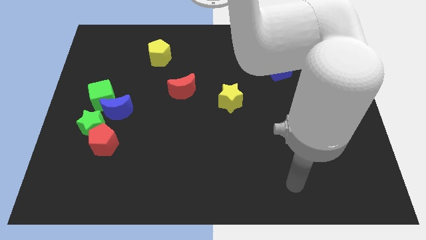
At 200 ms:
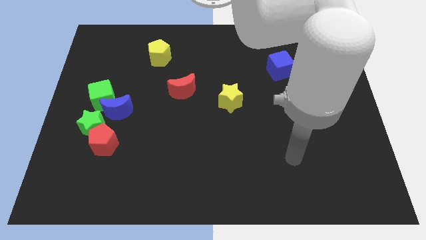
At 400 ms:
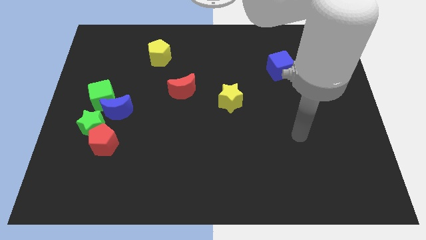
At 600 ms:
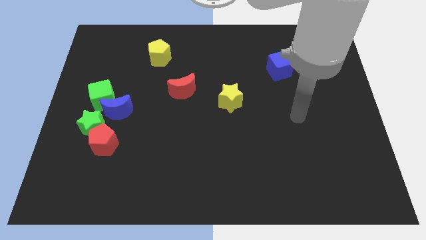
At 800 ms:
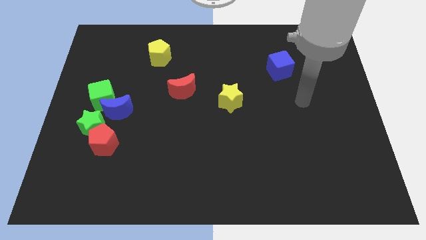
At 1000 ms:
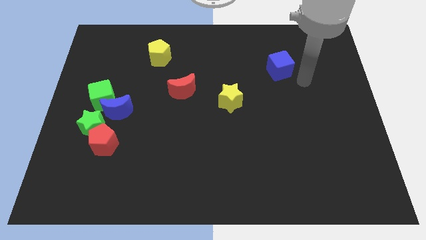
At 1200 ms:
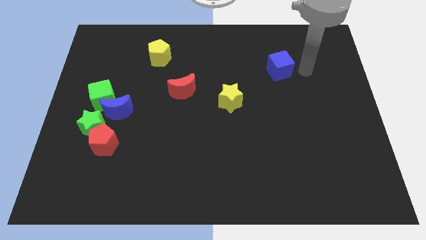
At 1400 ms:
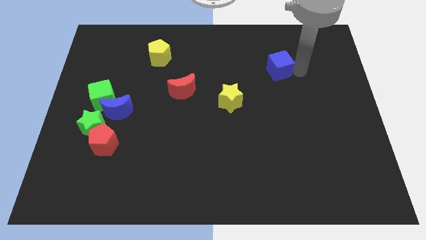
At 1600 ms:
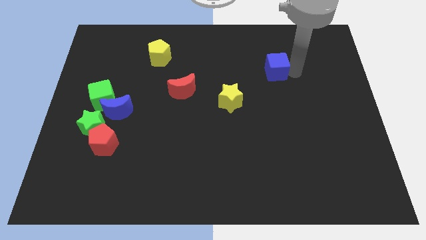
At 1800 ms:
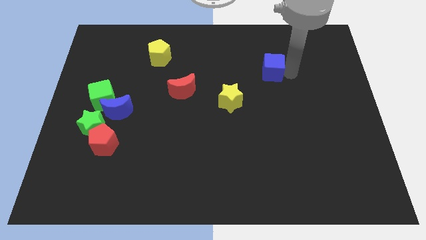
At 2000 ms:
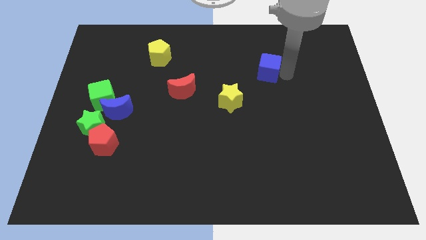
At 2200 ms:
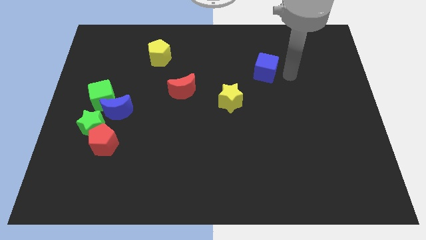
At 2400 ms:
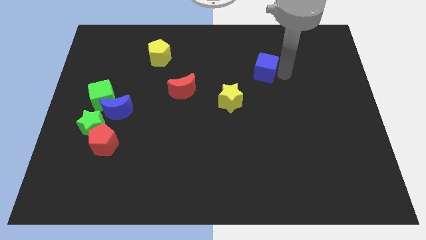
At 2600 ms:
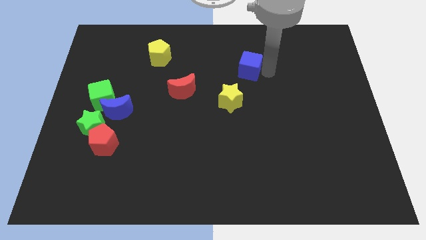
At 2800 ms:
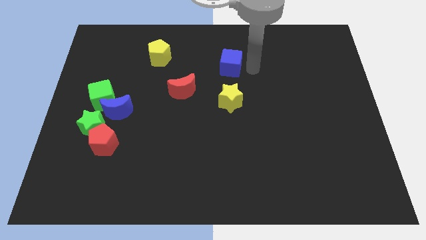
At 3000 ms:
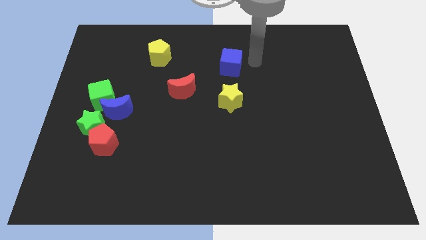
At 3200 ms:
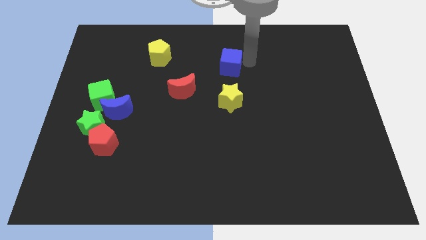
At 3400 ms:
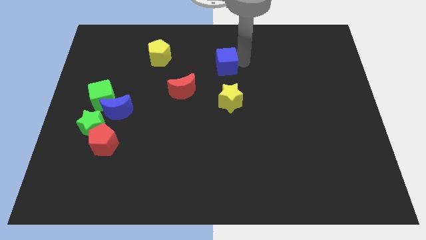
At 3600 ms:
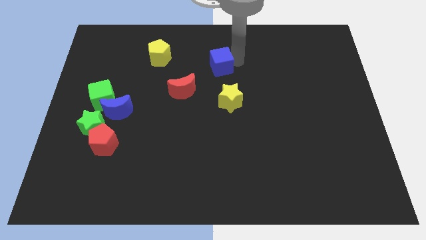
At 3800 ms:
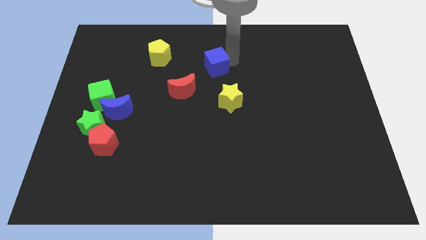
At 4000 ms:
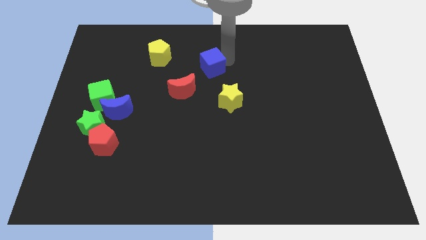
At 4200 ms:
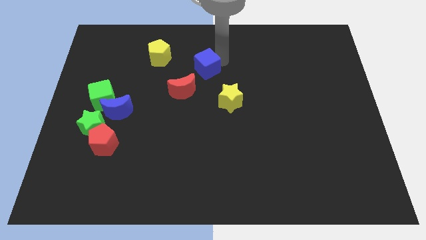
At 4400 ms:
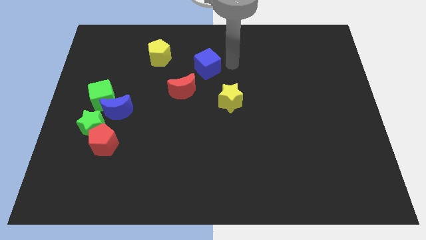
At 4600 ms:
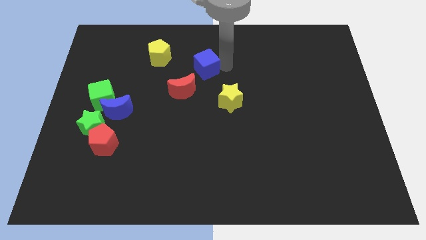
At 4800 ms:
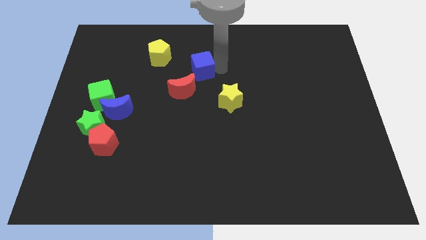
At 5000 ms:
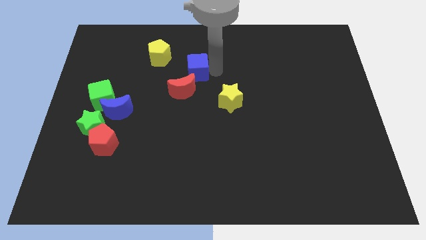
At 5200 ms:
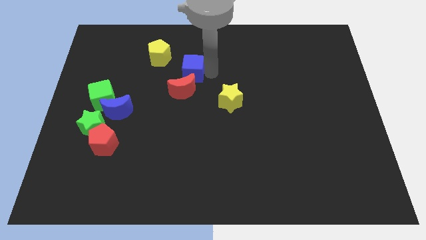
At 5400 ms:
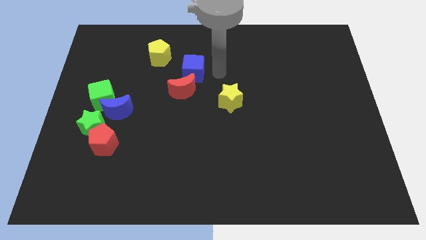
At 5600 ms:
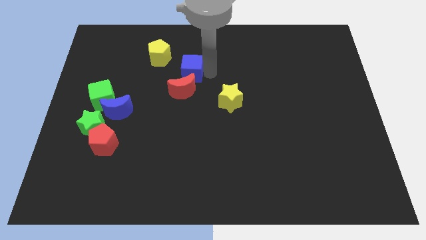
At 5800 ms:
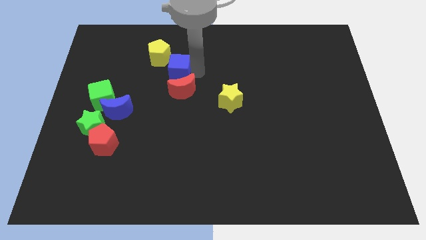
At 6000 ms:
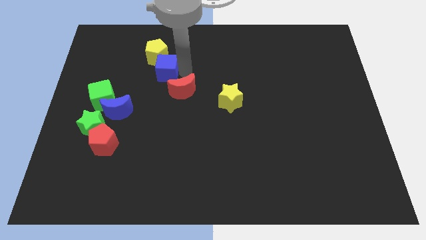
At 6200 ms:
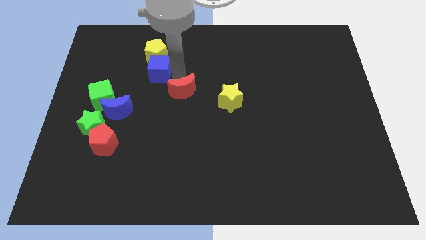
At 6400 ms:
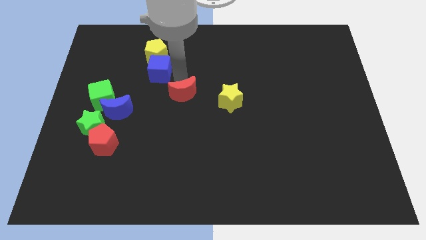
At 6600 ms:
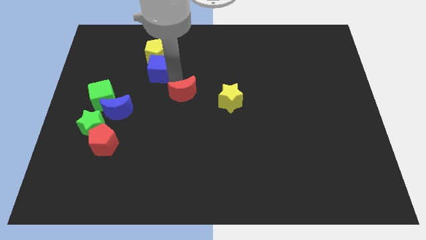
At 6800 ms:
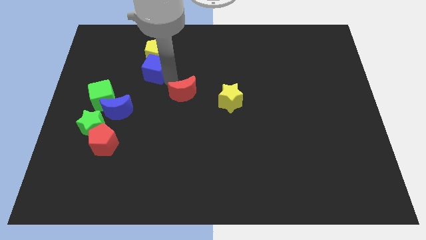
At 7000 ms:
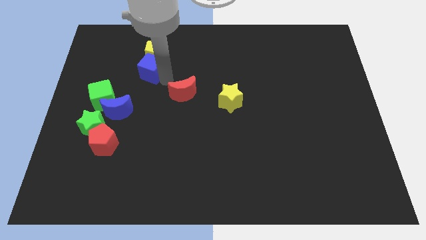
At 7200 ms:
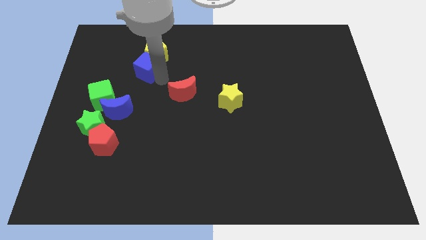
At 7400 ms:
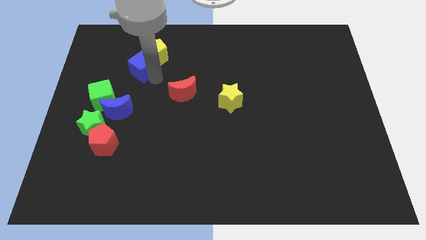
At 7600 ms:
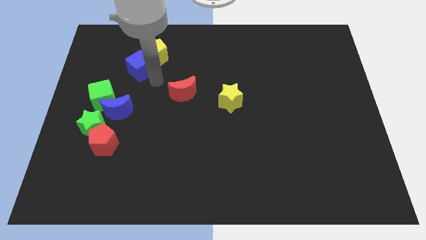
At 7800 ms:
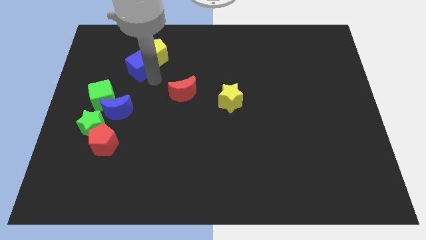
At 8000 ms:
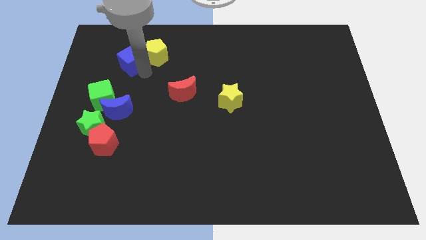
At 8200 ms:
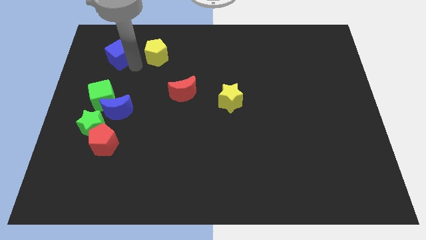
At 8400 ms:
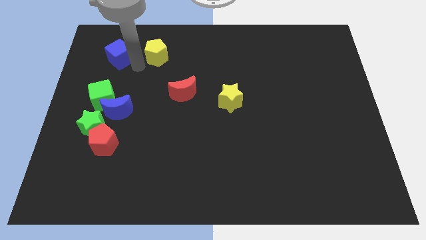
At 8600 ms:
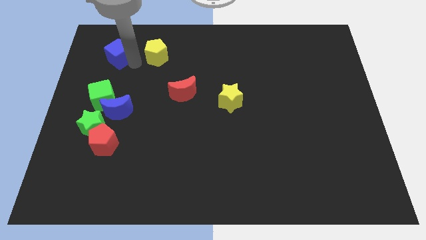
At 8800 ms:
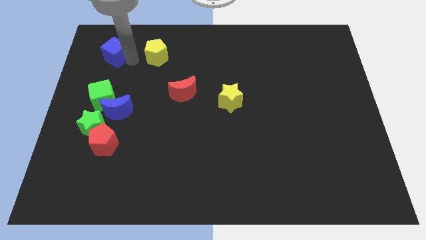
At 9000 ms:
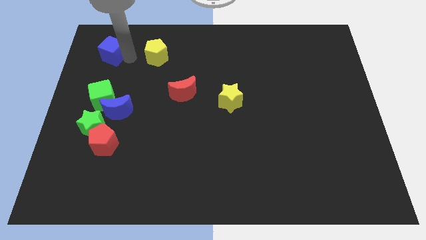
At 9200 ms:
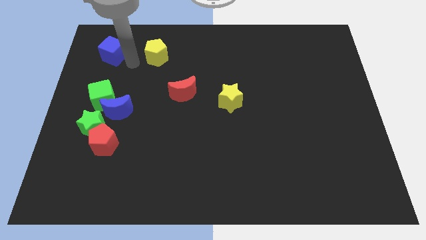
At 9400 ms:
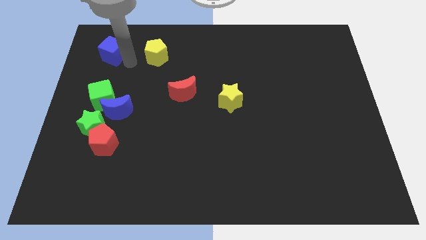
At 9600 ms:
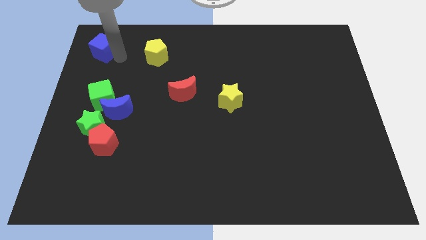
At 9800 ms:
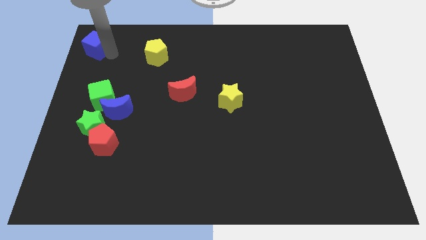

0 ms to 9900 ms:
move the blue cube to the top left corner
